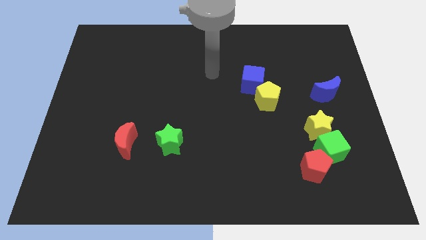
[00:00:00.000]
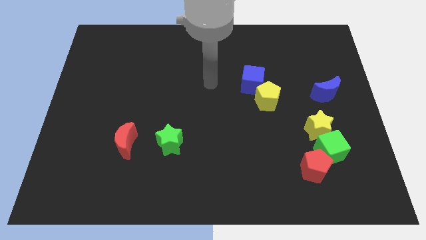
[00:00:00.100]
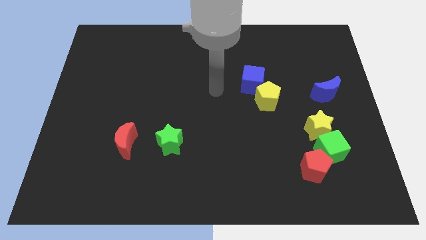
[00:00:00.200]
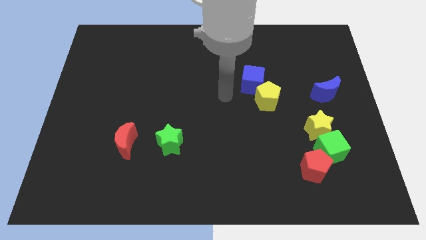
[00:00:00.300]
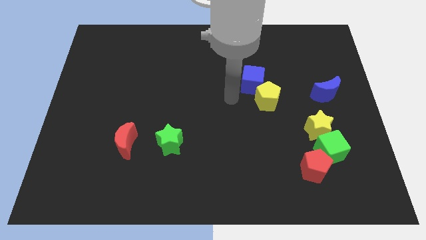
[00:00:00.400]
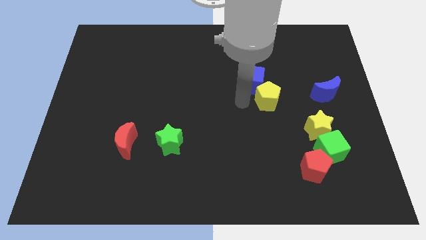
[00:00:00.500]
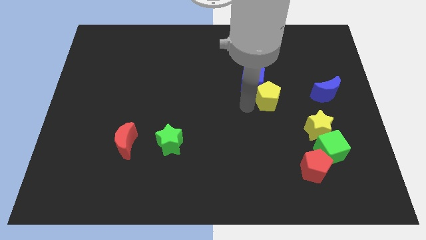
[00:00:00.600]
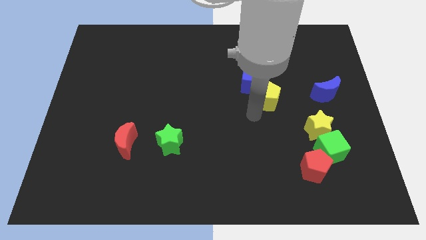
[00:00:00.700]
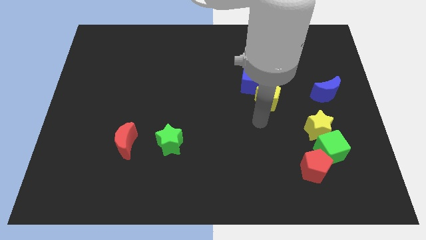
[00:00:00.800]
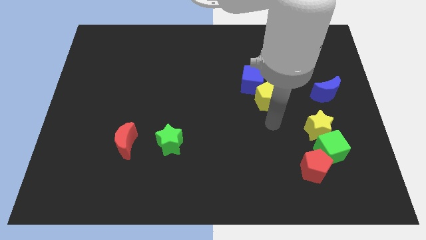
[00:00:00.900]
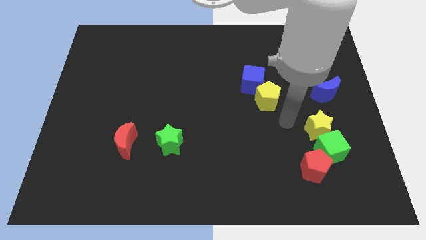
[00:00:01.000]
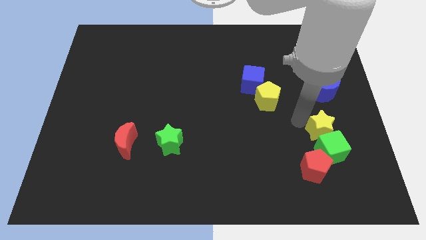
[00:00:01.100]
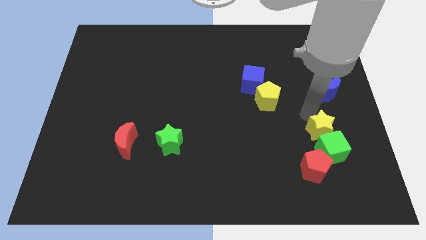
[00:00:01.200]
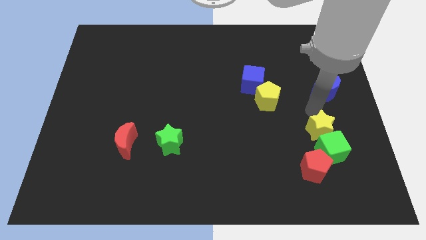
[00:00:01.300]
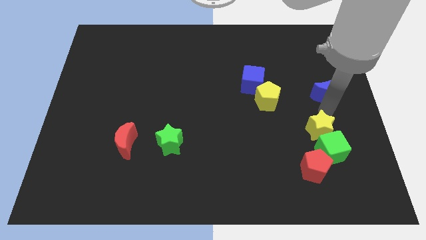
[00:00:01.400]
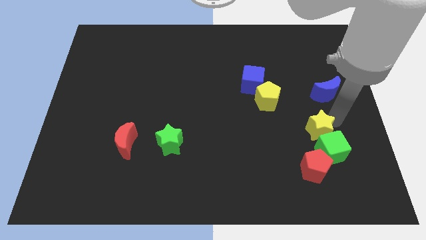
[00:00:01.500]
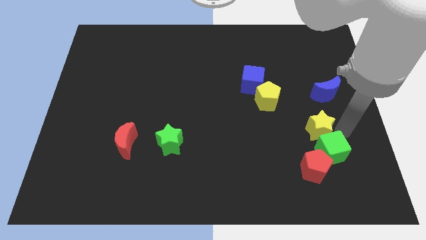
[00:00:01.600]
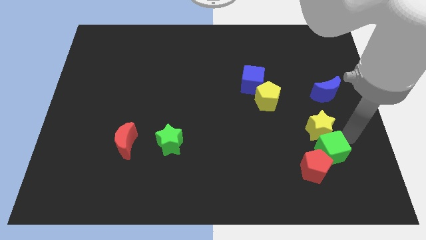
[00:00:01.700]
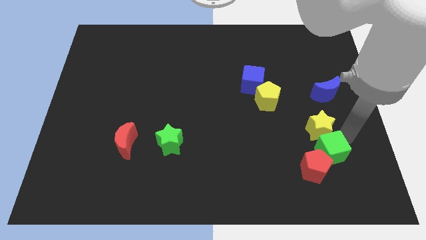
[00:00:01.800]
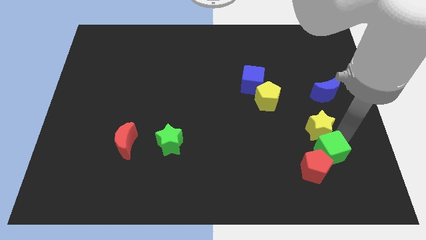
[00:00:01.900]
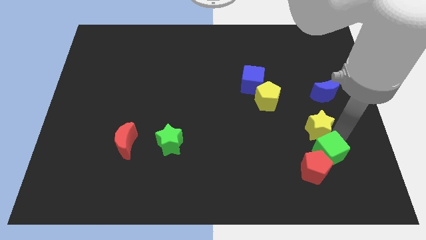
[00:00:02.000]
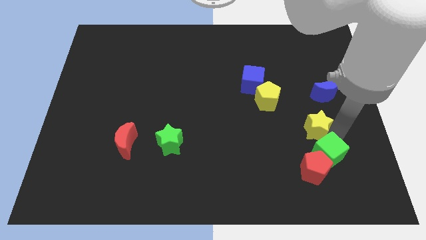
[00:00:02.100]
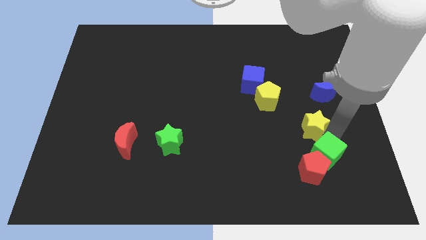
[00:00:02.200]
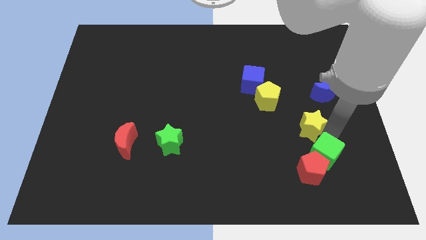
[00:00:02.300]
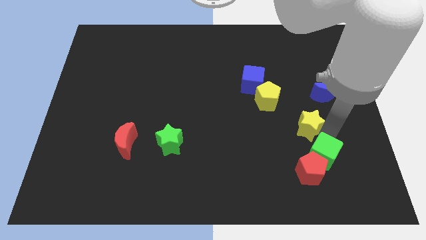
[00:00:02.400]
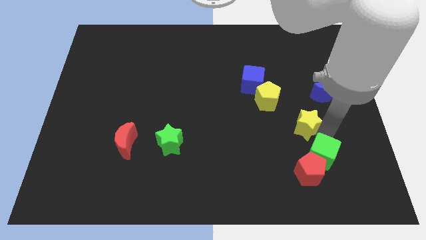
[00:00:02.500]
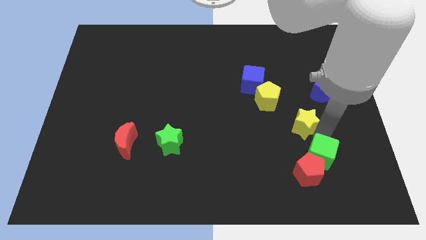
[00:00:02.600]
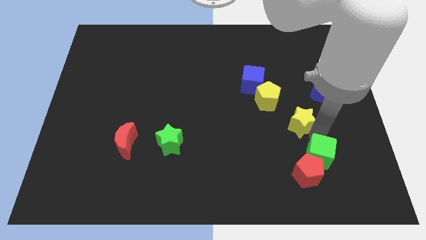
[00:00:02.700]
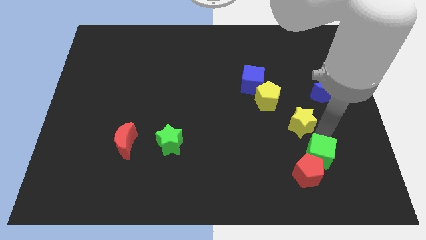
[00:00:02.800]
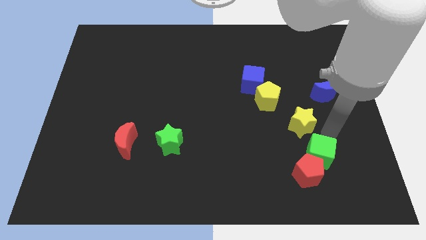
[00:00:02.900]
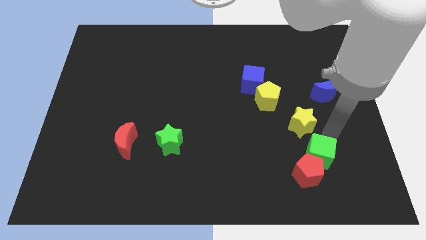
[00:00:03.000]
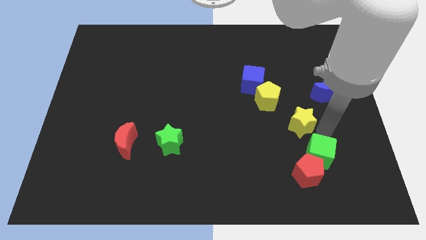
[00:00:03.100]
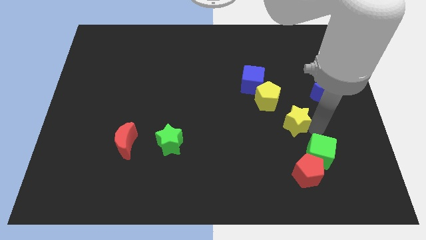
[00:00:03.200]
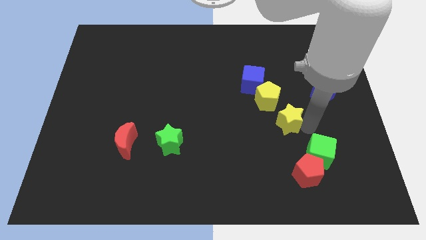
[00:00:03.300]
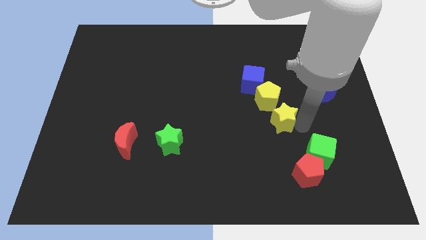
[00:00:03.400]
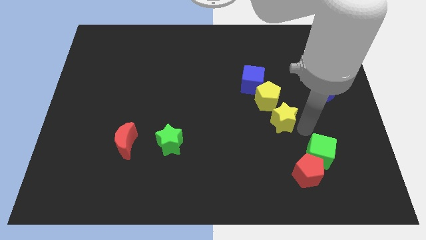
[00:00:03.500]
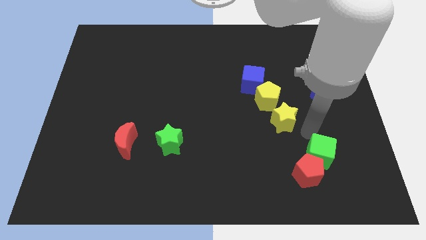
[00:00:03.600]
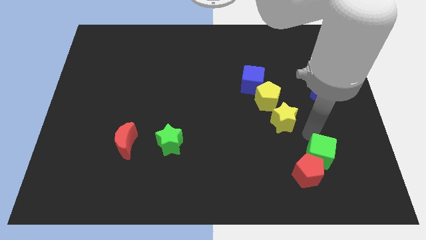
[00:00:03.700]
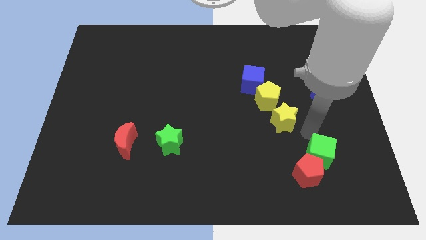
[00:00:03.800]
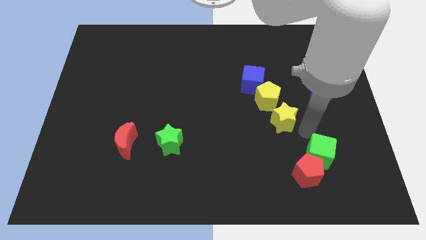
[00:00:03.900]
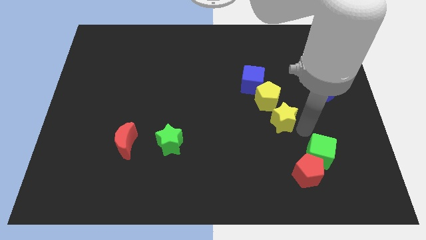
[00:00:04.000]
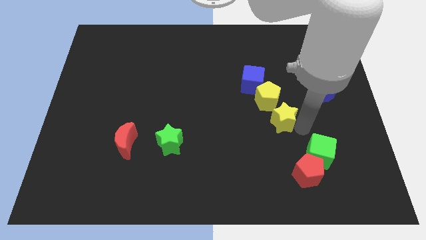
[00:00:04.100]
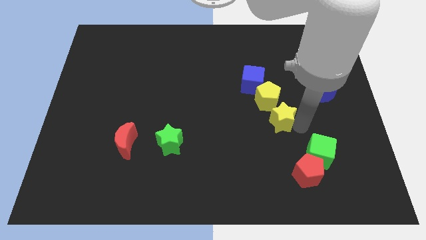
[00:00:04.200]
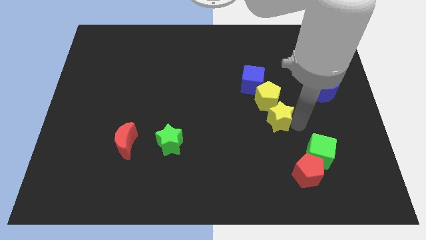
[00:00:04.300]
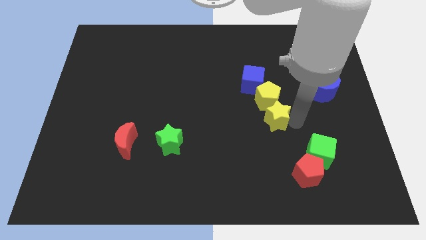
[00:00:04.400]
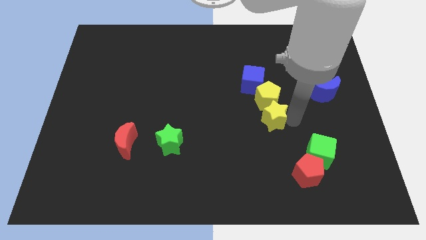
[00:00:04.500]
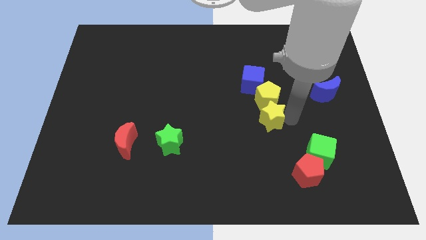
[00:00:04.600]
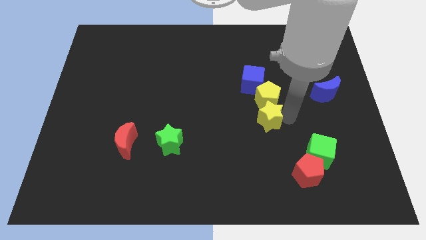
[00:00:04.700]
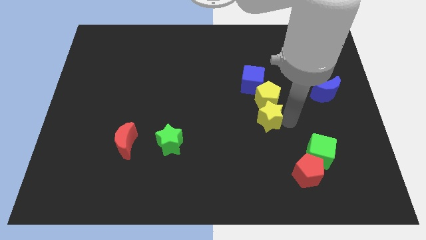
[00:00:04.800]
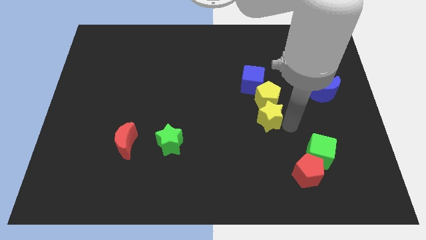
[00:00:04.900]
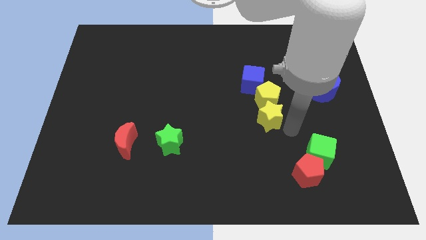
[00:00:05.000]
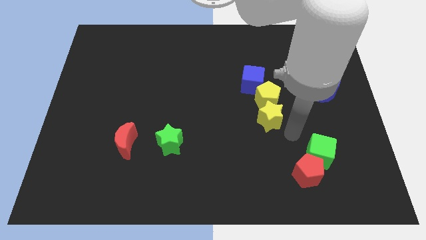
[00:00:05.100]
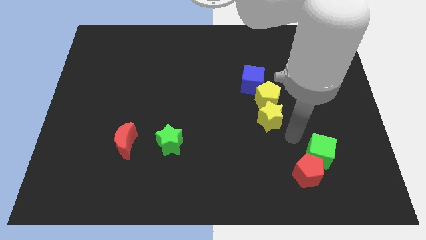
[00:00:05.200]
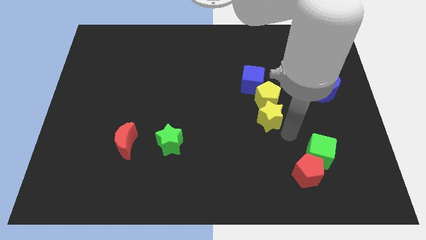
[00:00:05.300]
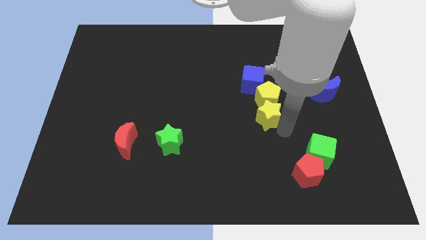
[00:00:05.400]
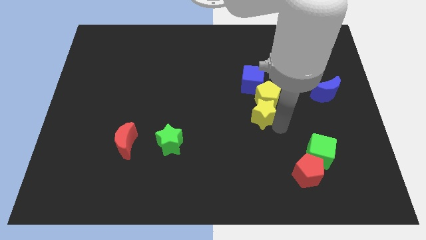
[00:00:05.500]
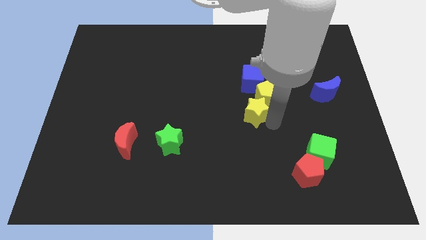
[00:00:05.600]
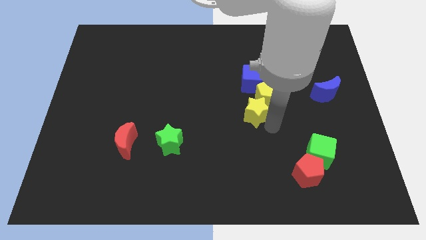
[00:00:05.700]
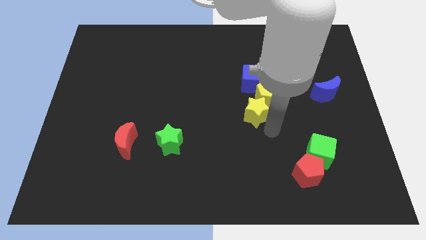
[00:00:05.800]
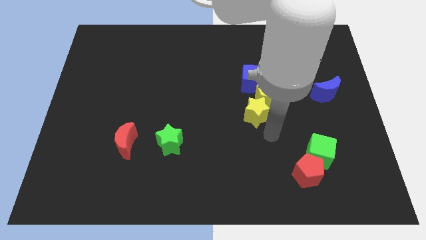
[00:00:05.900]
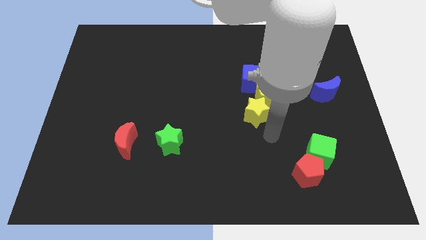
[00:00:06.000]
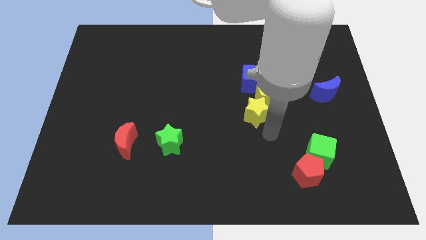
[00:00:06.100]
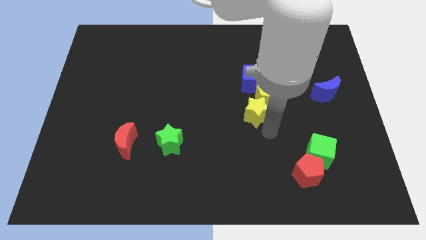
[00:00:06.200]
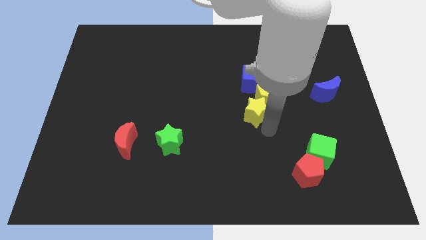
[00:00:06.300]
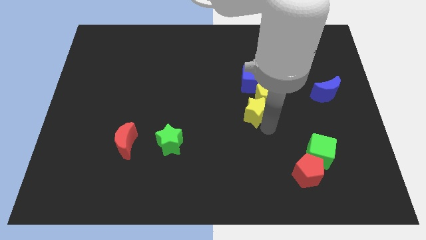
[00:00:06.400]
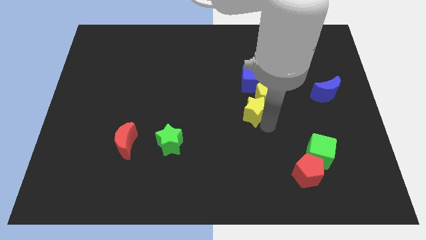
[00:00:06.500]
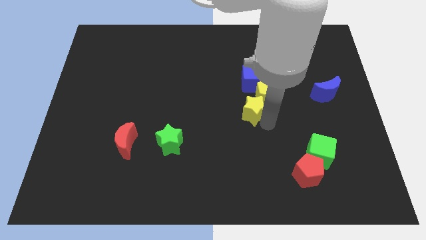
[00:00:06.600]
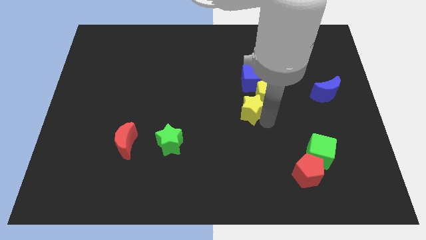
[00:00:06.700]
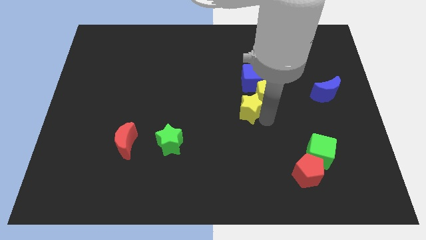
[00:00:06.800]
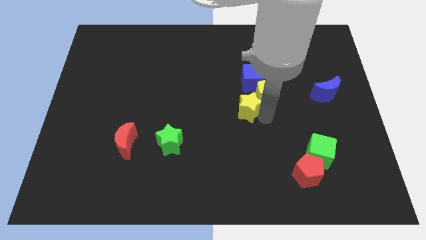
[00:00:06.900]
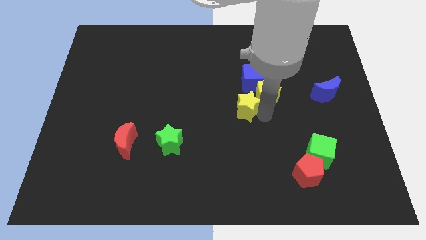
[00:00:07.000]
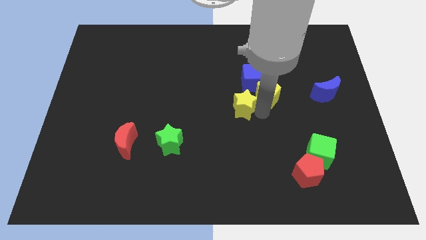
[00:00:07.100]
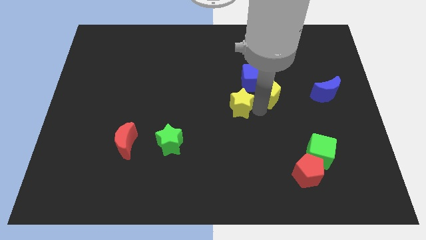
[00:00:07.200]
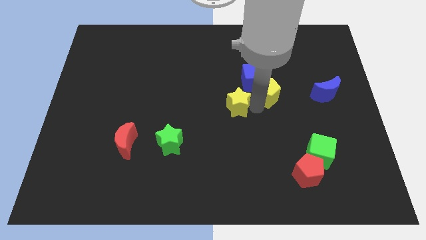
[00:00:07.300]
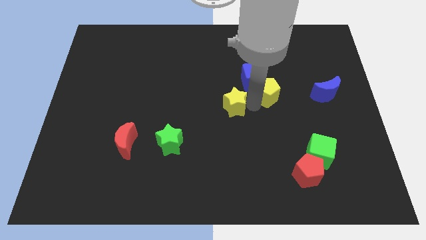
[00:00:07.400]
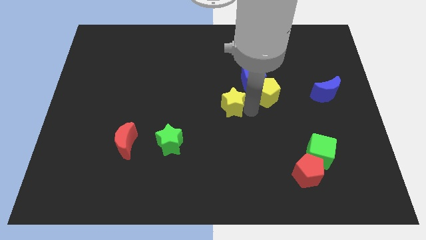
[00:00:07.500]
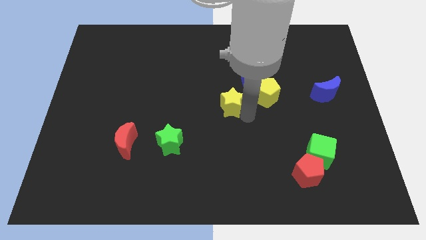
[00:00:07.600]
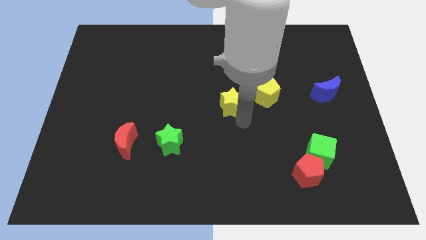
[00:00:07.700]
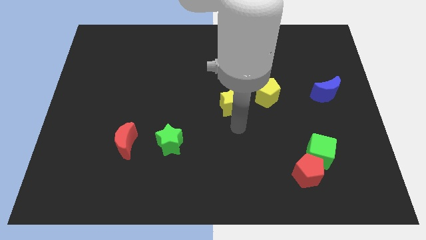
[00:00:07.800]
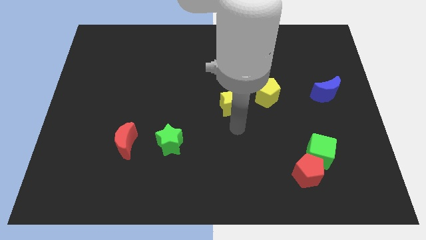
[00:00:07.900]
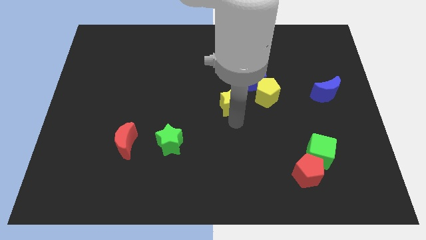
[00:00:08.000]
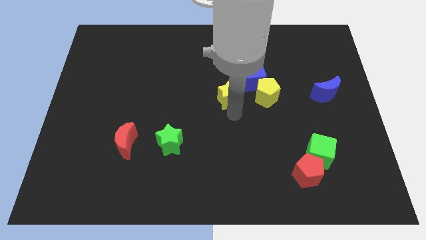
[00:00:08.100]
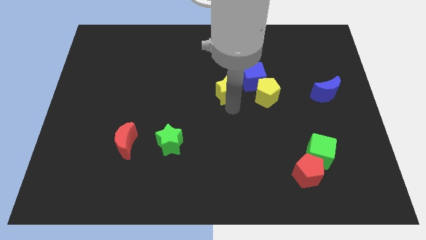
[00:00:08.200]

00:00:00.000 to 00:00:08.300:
move the yellow star upwards and to the left diagonally
